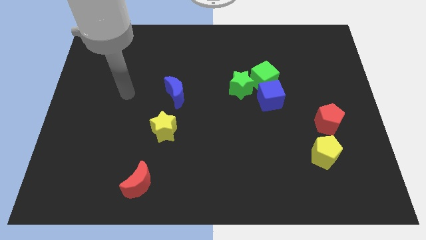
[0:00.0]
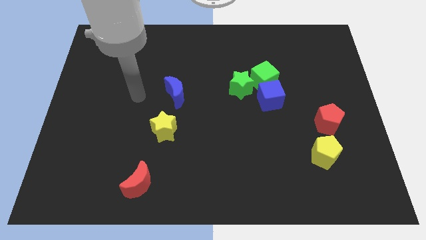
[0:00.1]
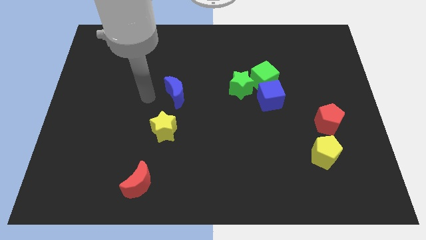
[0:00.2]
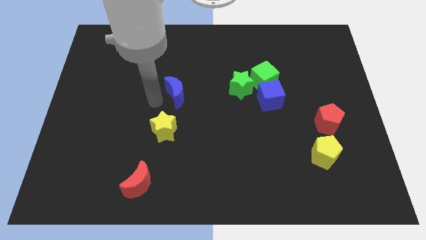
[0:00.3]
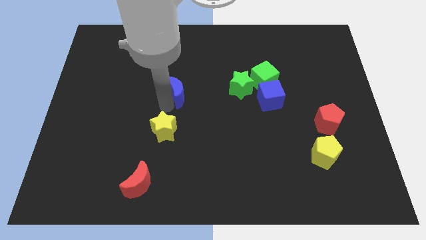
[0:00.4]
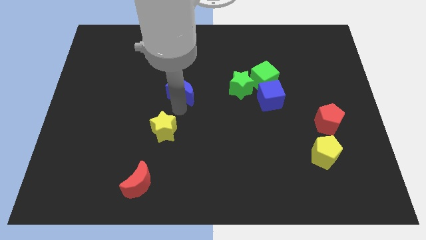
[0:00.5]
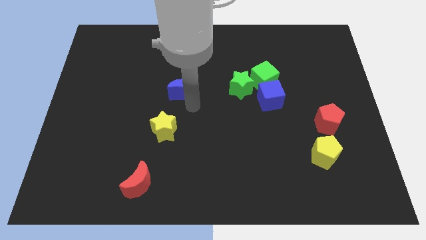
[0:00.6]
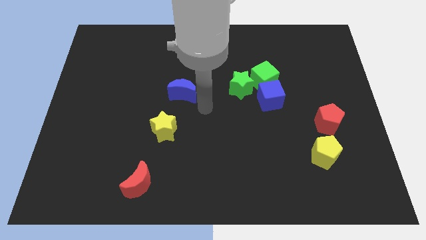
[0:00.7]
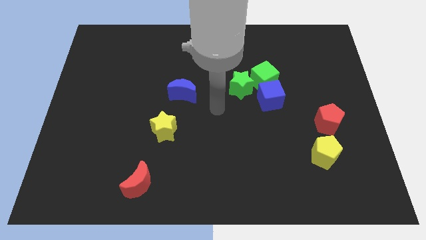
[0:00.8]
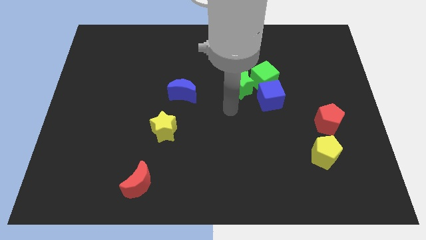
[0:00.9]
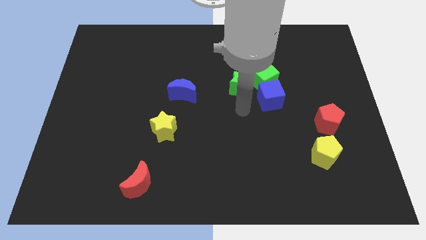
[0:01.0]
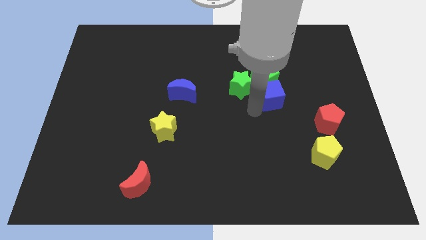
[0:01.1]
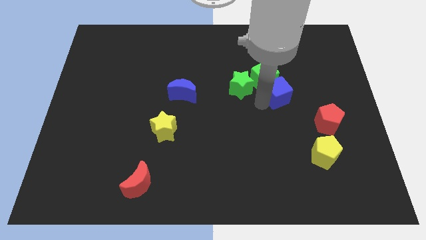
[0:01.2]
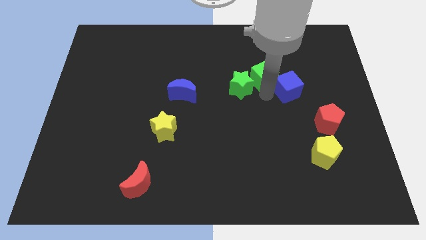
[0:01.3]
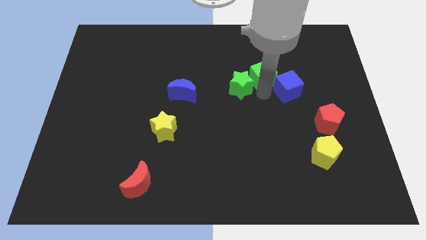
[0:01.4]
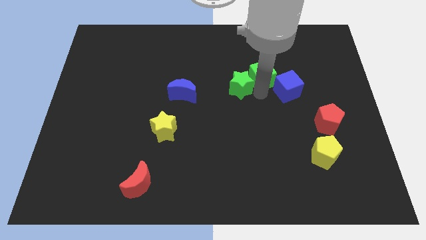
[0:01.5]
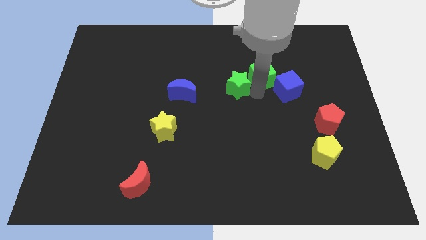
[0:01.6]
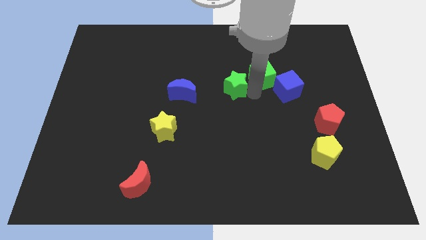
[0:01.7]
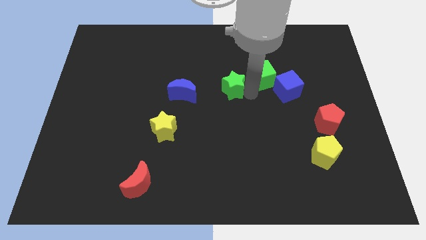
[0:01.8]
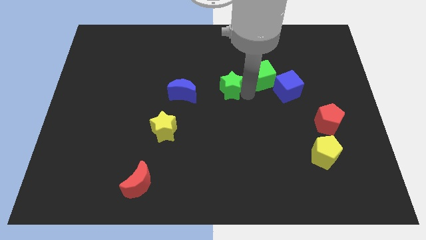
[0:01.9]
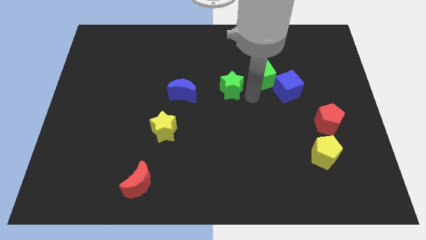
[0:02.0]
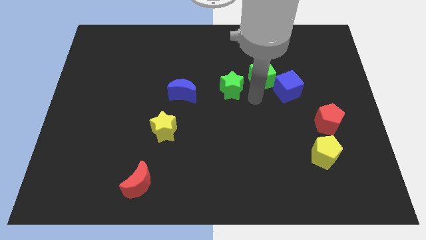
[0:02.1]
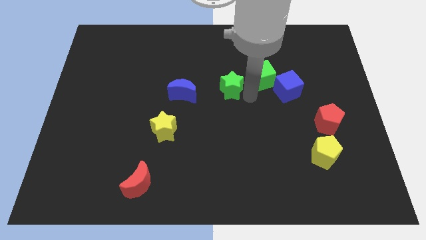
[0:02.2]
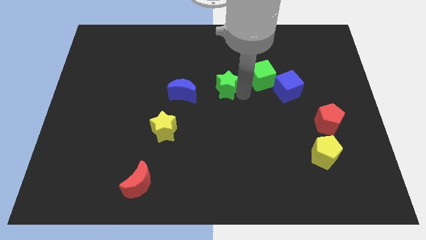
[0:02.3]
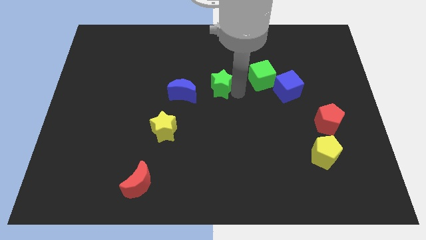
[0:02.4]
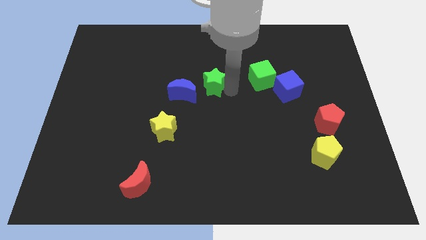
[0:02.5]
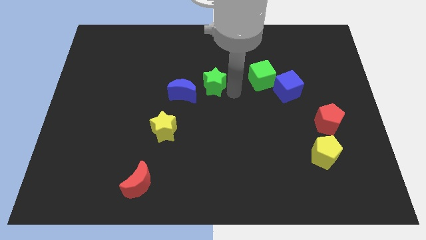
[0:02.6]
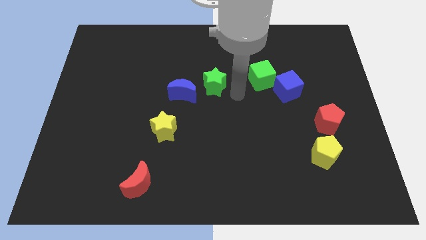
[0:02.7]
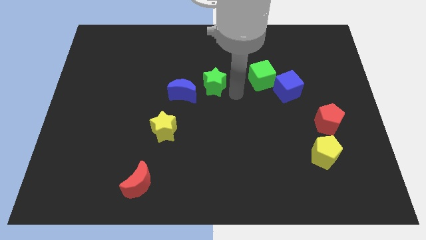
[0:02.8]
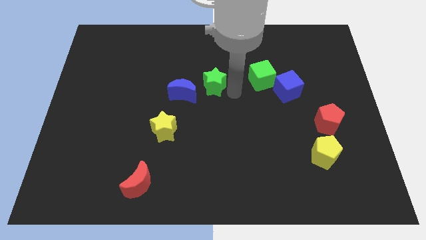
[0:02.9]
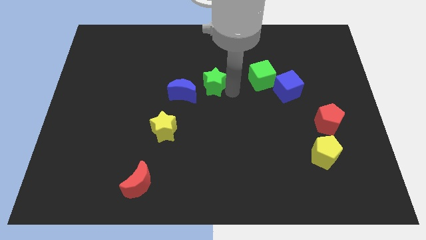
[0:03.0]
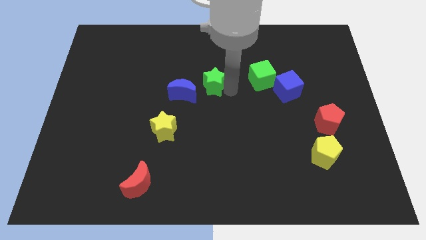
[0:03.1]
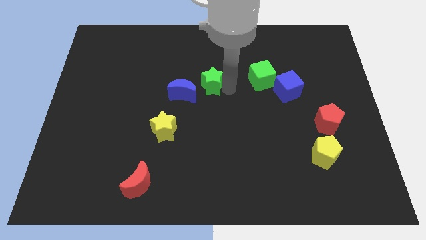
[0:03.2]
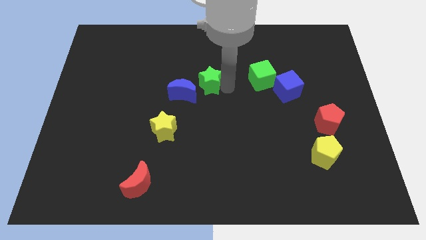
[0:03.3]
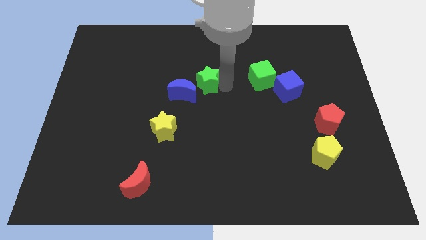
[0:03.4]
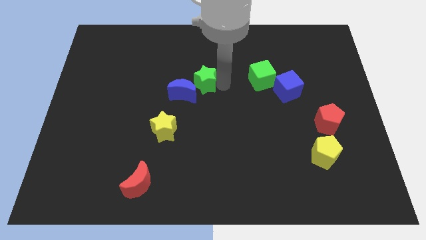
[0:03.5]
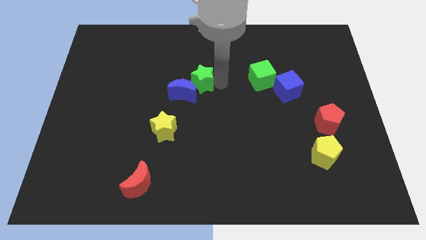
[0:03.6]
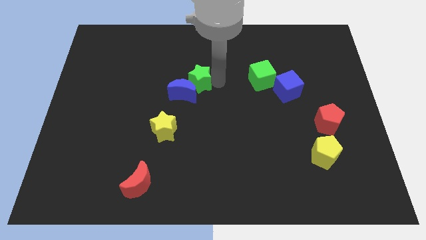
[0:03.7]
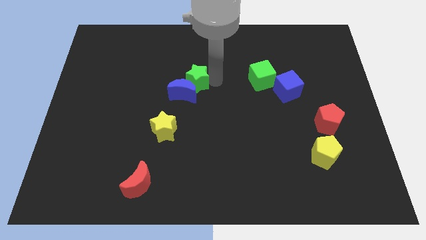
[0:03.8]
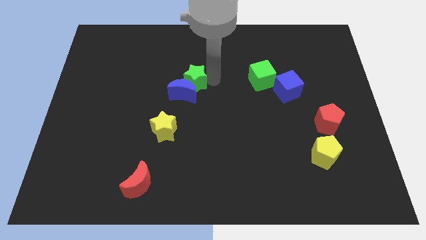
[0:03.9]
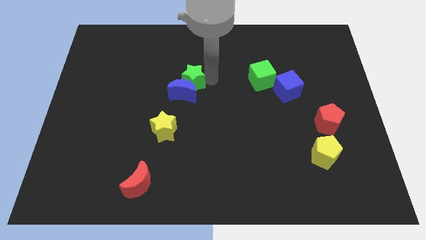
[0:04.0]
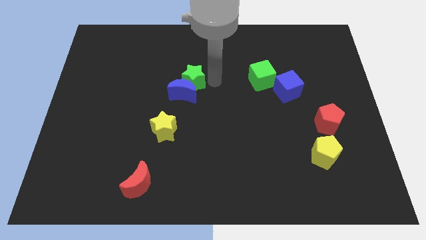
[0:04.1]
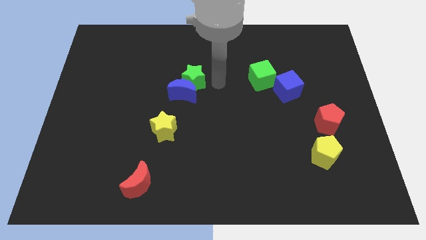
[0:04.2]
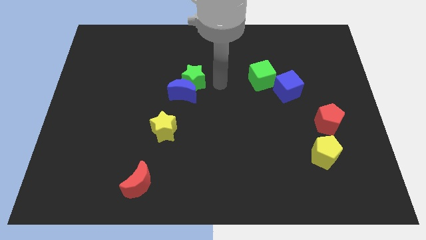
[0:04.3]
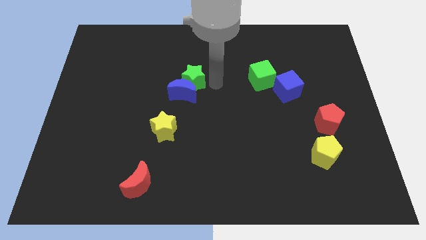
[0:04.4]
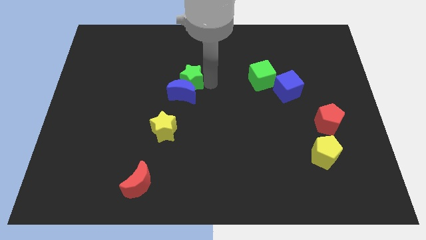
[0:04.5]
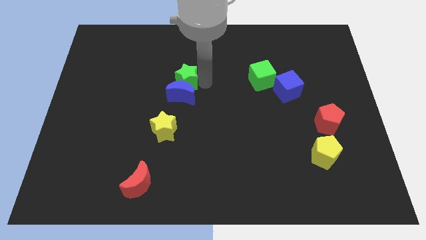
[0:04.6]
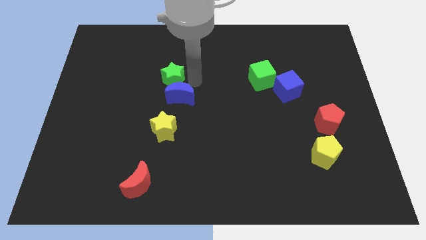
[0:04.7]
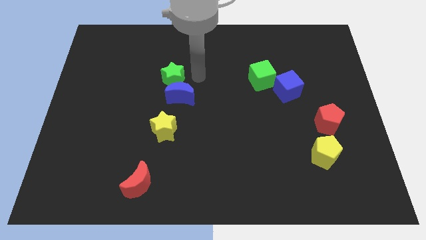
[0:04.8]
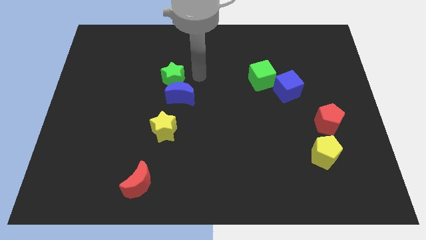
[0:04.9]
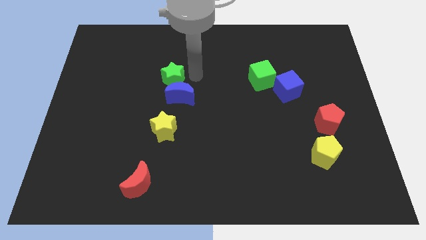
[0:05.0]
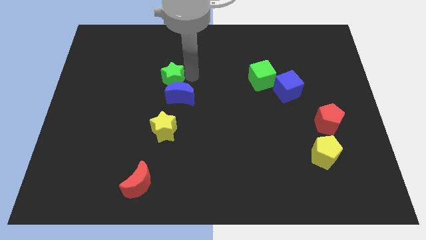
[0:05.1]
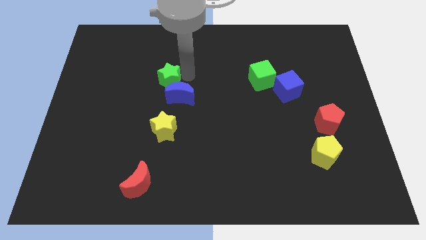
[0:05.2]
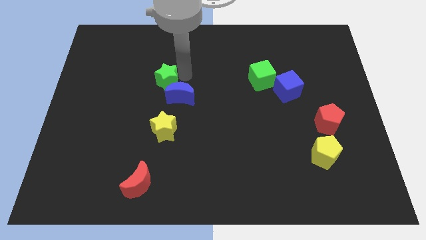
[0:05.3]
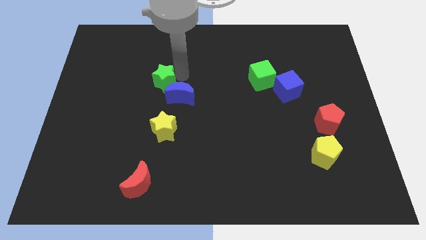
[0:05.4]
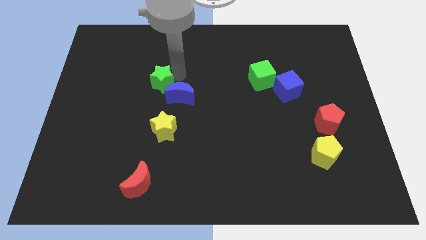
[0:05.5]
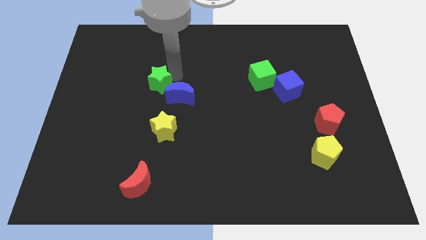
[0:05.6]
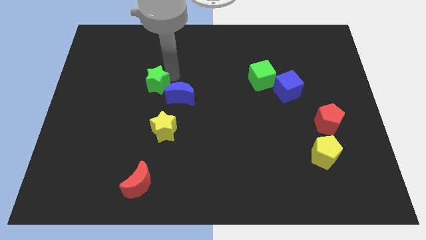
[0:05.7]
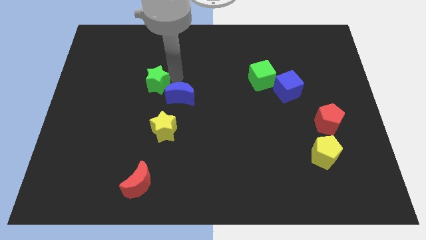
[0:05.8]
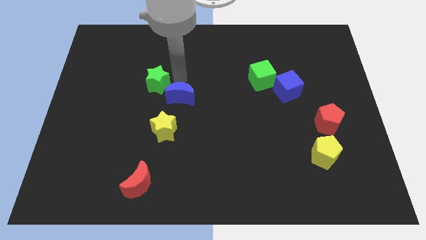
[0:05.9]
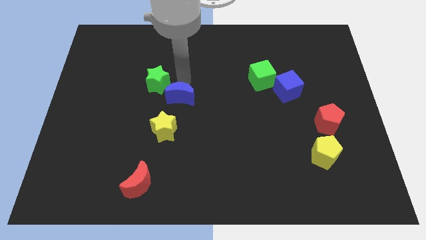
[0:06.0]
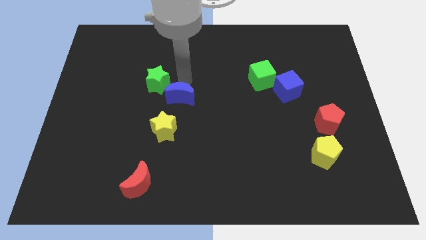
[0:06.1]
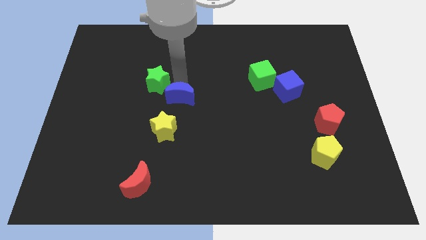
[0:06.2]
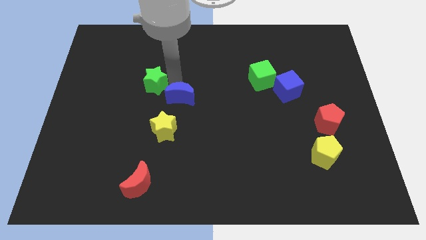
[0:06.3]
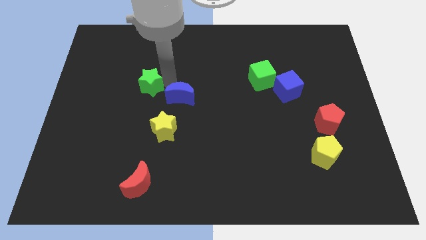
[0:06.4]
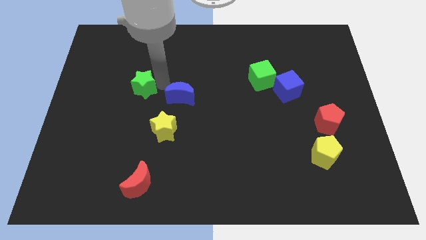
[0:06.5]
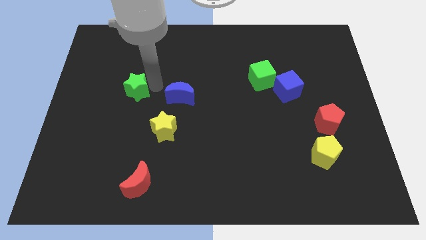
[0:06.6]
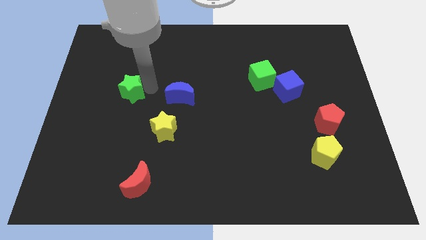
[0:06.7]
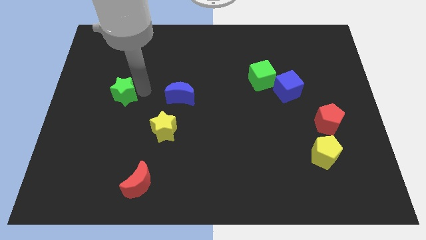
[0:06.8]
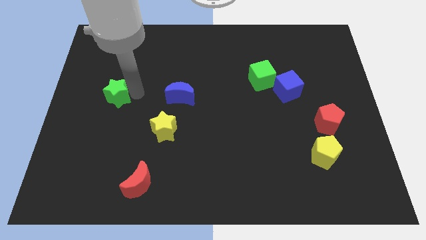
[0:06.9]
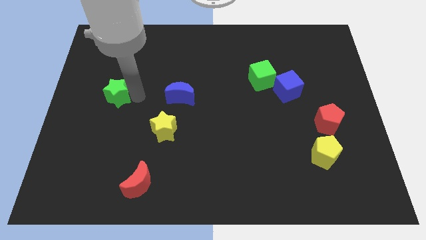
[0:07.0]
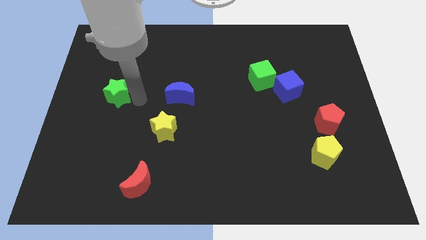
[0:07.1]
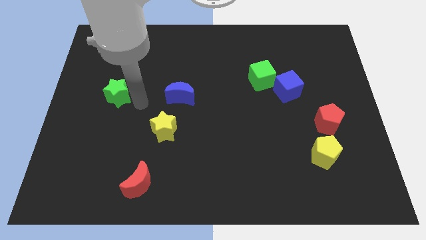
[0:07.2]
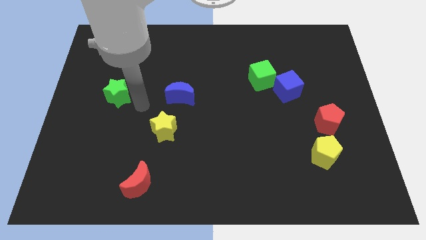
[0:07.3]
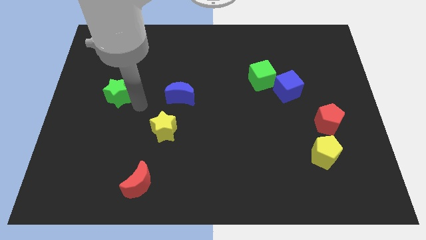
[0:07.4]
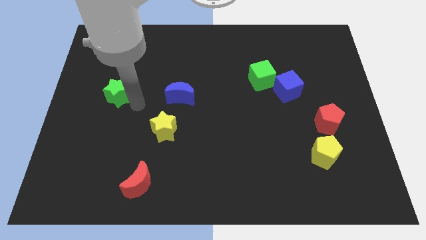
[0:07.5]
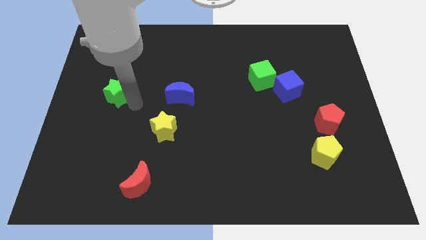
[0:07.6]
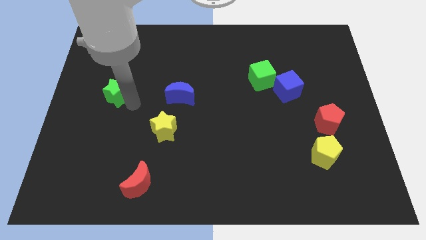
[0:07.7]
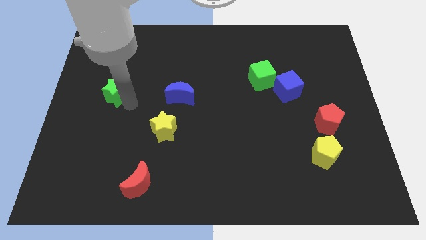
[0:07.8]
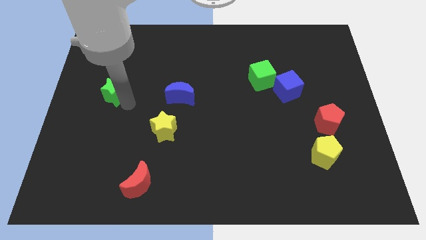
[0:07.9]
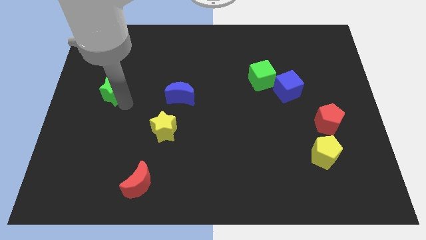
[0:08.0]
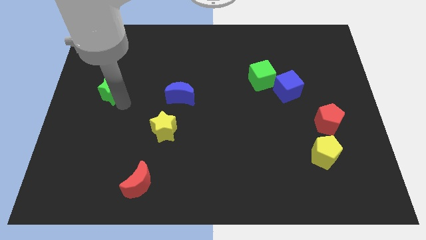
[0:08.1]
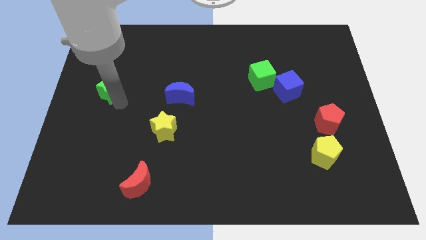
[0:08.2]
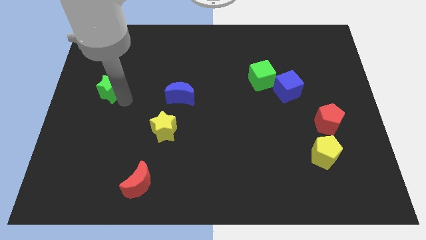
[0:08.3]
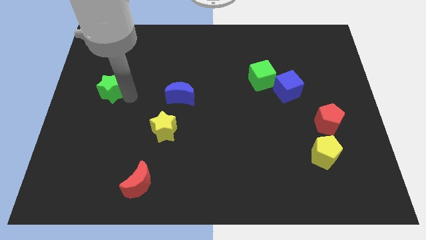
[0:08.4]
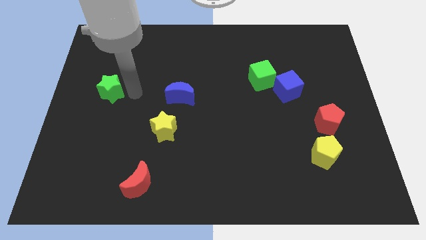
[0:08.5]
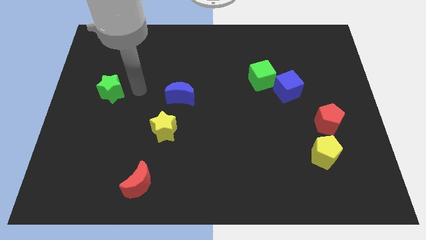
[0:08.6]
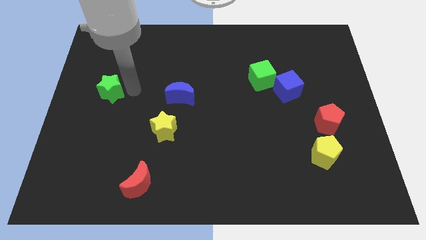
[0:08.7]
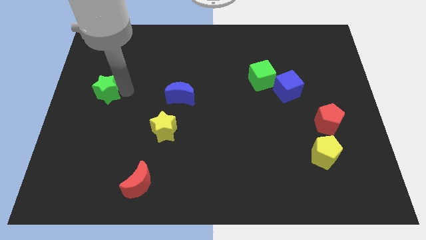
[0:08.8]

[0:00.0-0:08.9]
move the green star to the left side of the board
